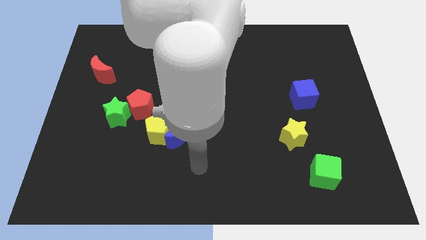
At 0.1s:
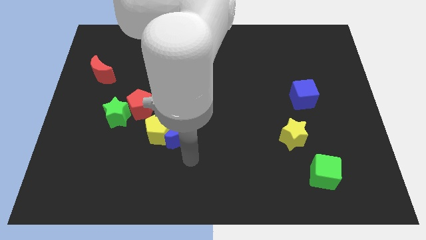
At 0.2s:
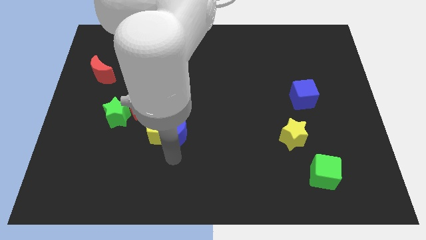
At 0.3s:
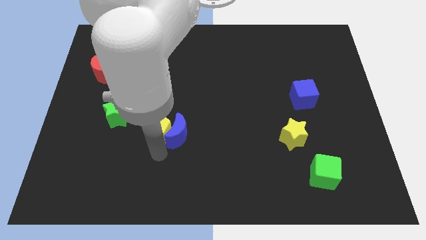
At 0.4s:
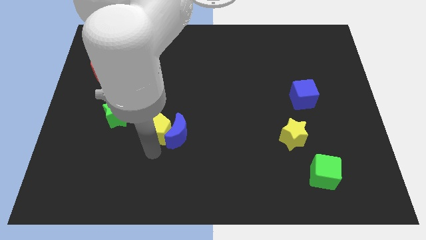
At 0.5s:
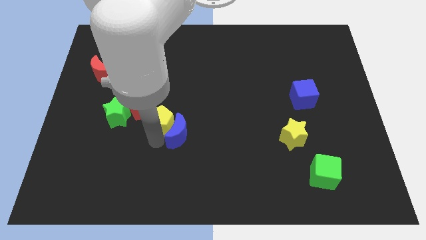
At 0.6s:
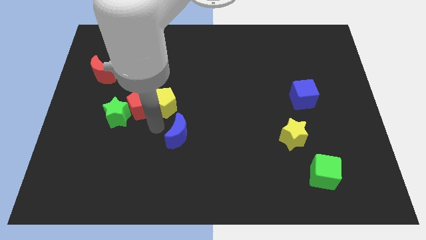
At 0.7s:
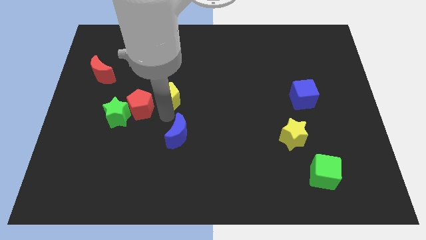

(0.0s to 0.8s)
separate the blue moon from the yellow pentagon

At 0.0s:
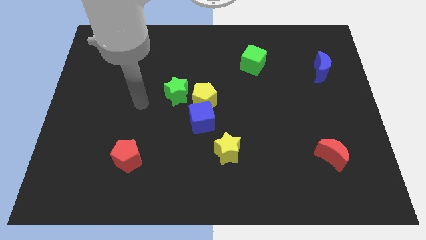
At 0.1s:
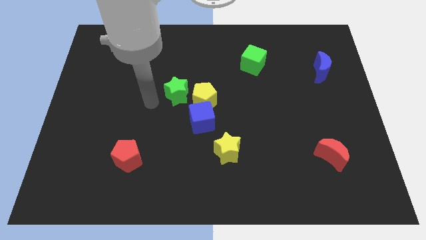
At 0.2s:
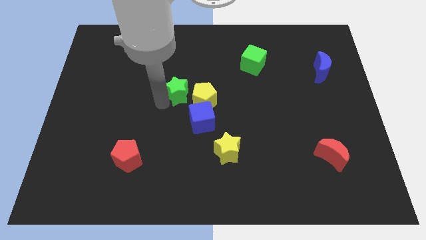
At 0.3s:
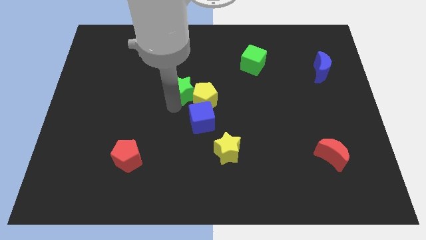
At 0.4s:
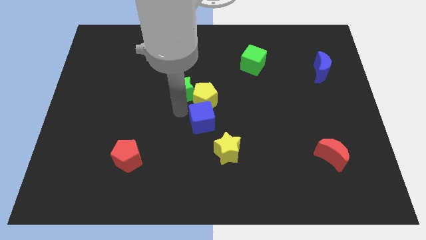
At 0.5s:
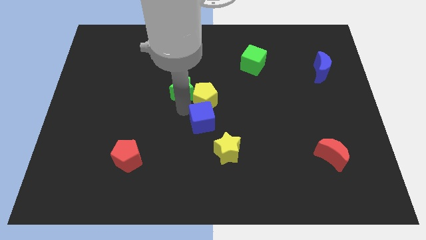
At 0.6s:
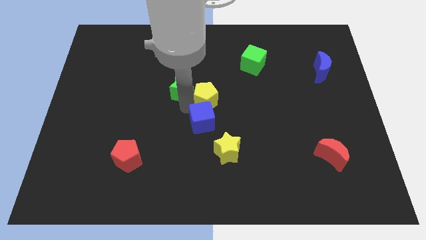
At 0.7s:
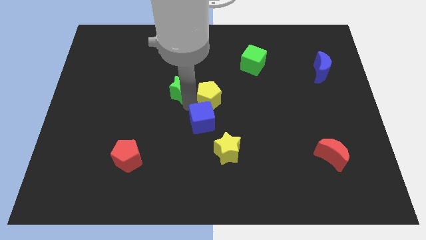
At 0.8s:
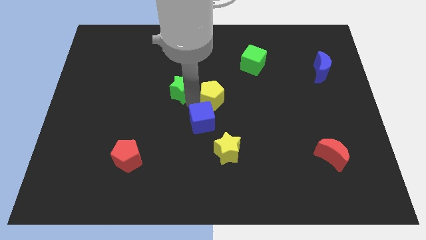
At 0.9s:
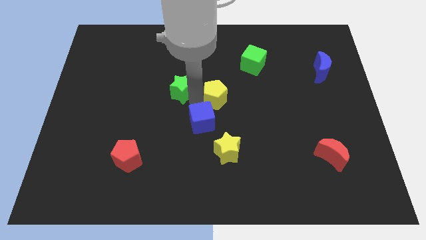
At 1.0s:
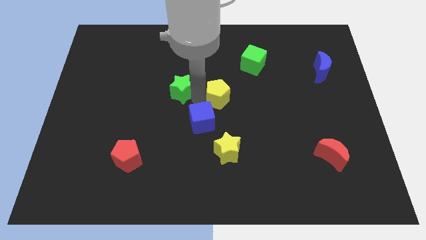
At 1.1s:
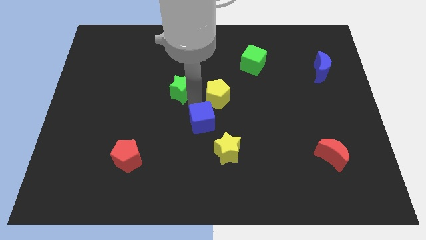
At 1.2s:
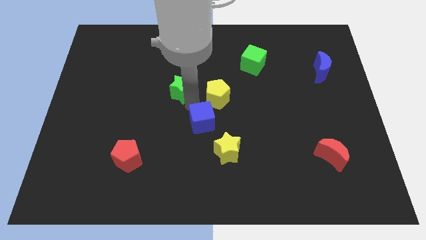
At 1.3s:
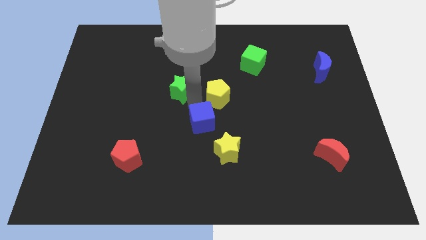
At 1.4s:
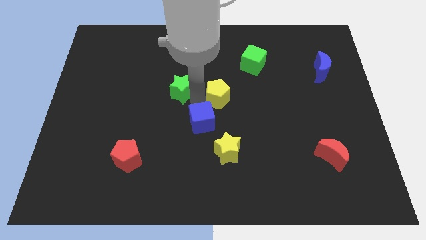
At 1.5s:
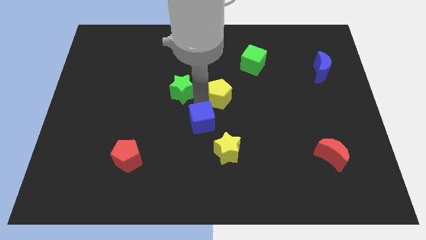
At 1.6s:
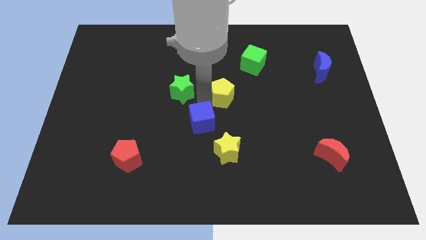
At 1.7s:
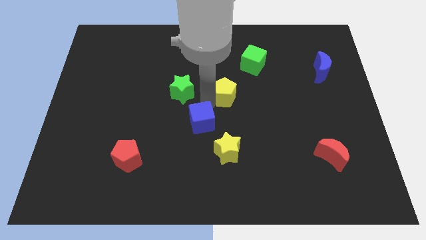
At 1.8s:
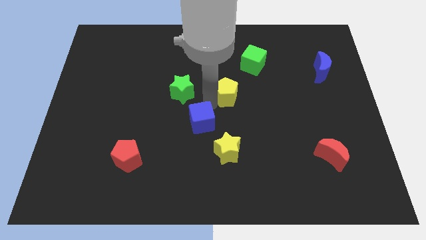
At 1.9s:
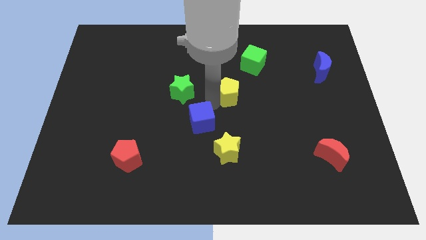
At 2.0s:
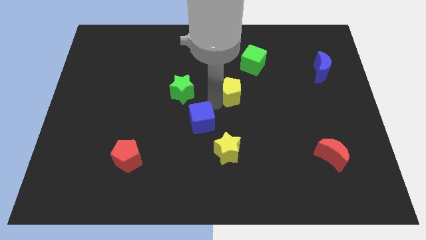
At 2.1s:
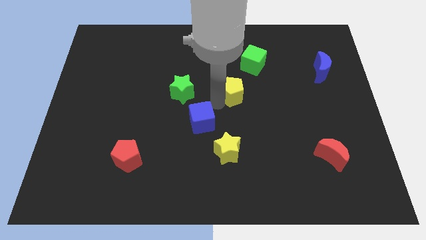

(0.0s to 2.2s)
pull the yellow pentagon apart from the blue cube and green star

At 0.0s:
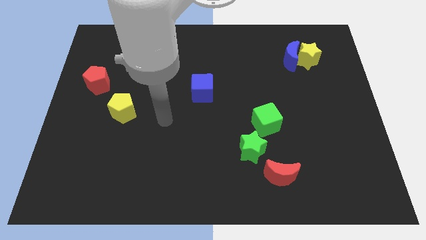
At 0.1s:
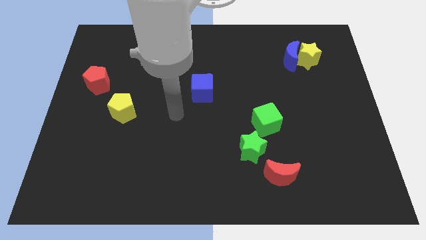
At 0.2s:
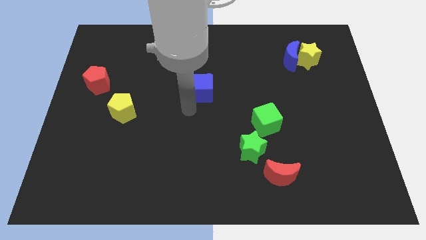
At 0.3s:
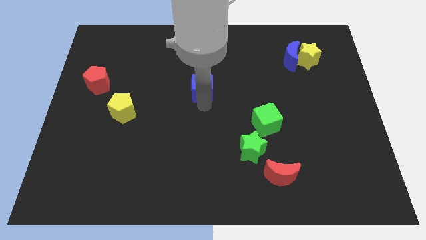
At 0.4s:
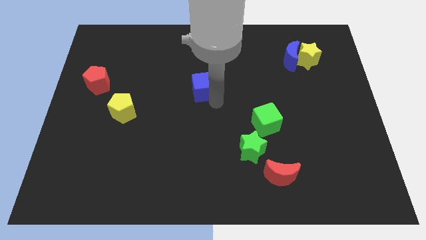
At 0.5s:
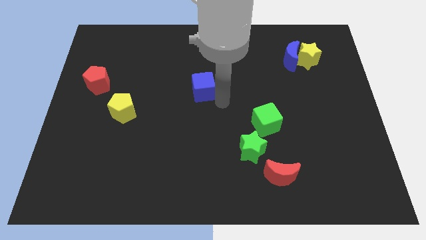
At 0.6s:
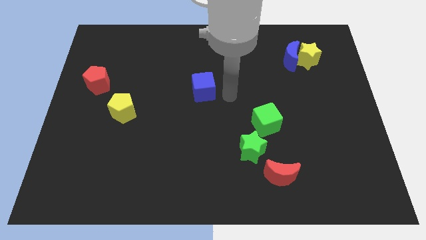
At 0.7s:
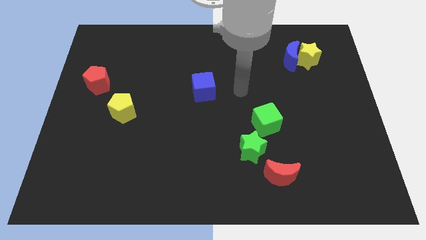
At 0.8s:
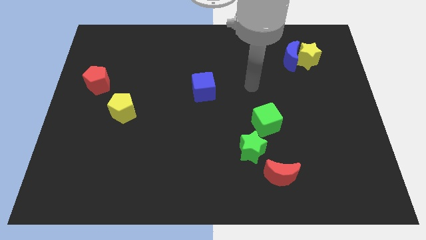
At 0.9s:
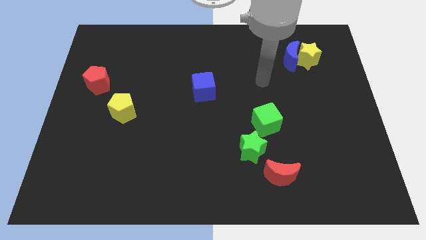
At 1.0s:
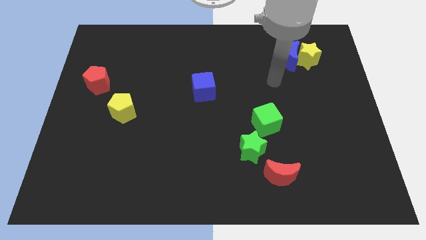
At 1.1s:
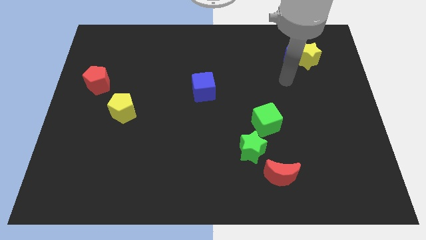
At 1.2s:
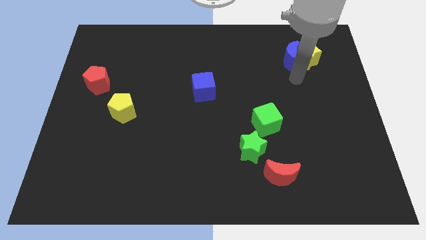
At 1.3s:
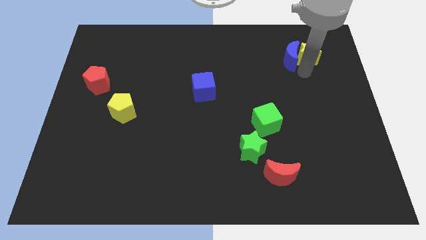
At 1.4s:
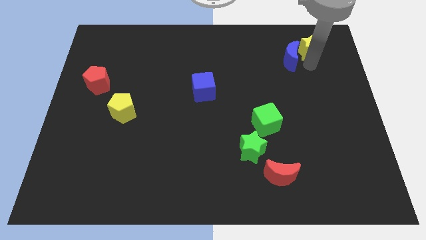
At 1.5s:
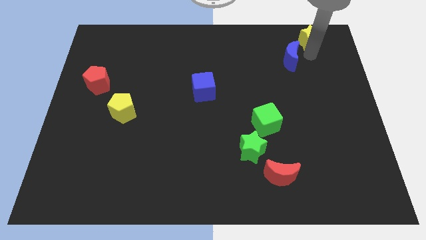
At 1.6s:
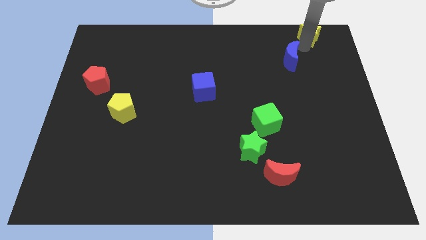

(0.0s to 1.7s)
move the blue moon away from the yellow star

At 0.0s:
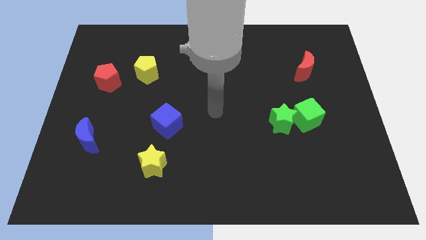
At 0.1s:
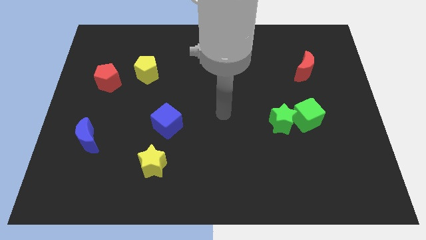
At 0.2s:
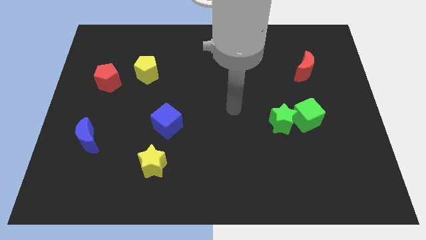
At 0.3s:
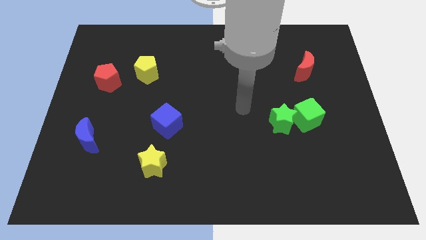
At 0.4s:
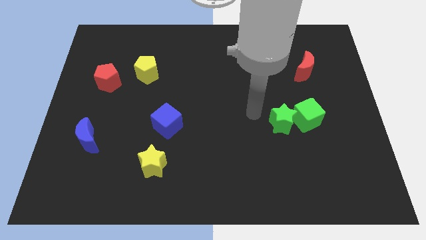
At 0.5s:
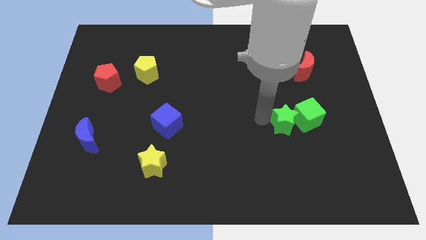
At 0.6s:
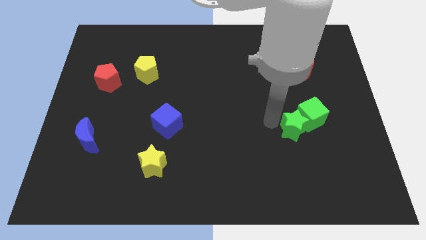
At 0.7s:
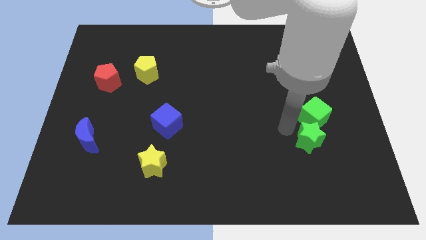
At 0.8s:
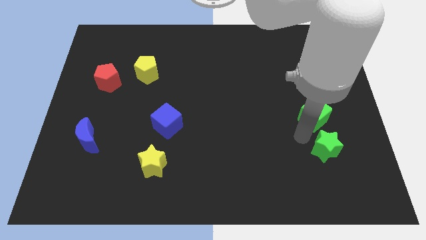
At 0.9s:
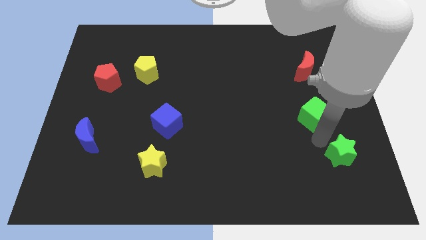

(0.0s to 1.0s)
move the green cube away from the green star

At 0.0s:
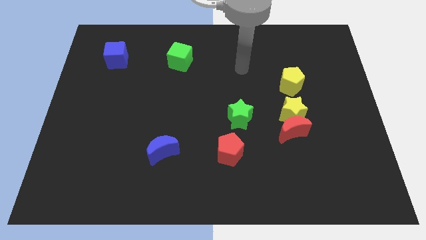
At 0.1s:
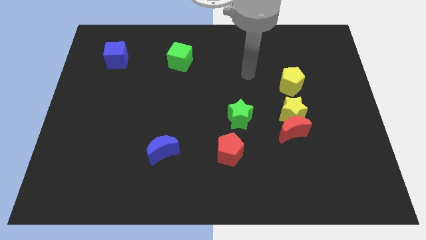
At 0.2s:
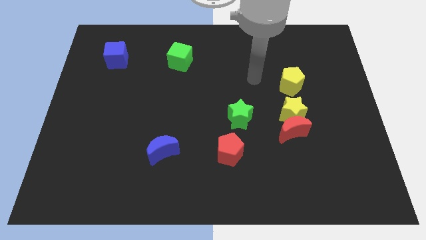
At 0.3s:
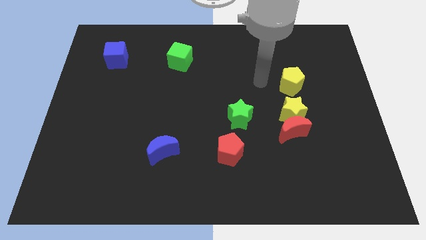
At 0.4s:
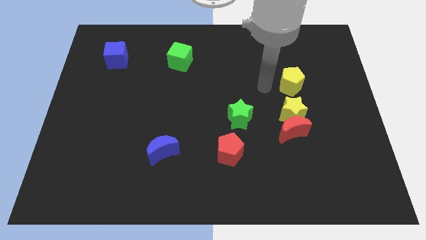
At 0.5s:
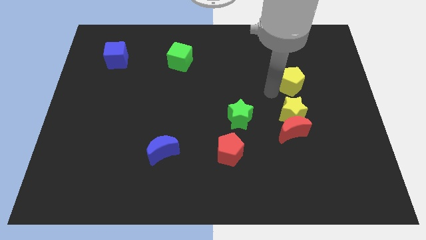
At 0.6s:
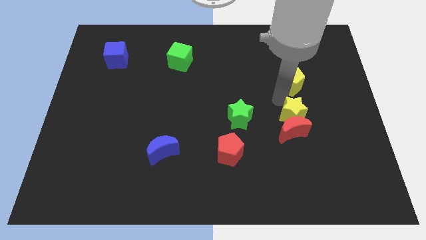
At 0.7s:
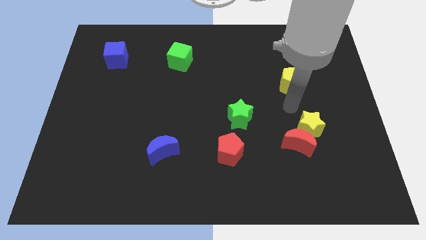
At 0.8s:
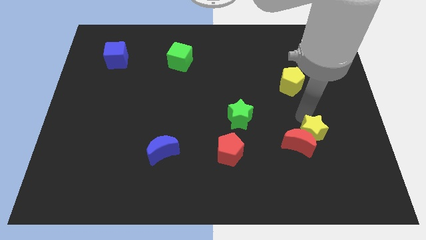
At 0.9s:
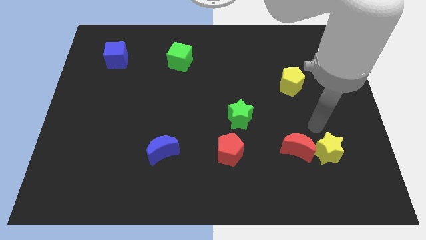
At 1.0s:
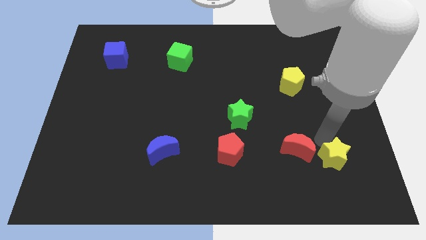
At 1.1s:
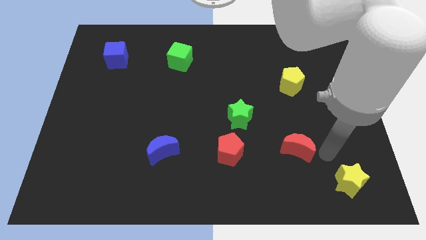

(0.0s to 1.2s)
separate the red moon from the yellow star

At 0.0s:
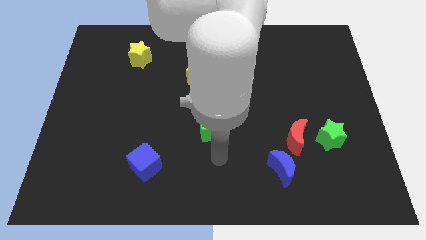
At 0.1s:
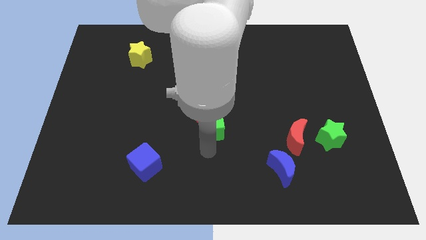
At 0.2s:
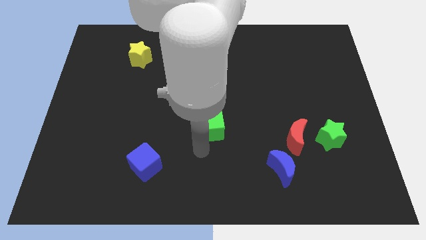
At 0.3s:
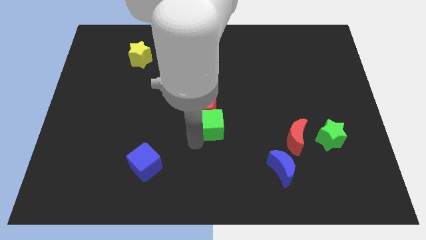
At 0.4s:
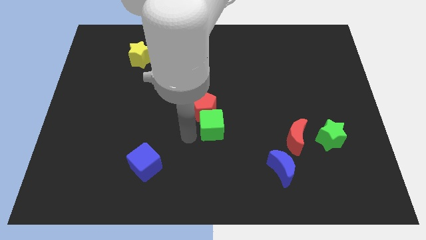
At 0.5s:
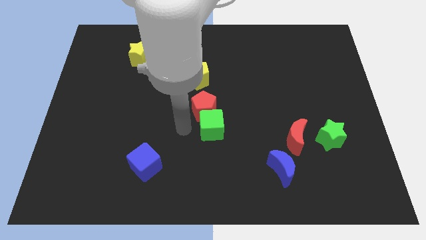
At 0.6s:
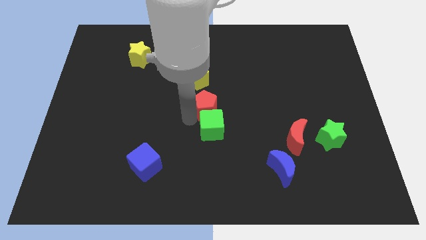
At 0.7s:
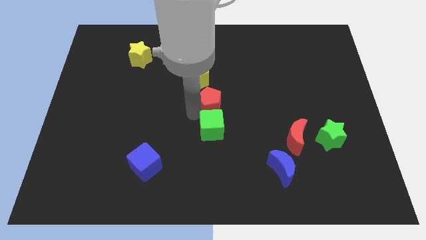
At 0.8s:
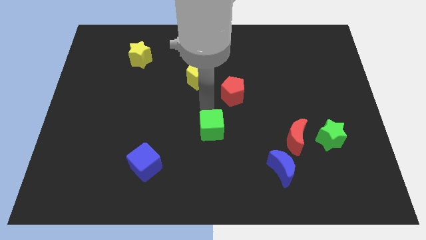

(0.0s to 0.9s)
move the green cube away from the red pentagon

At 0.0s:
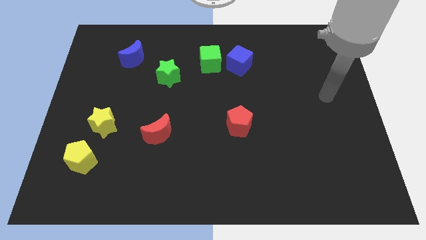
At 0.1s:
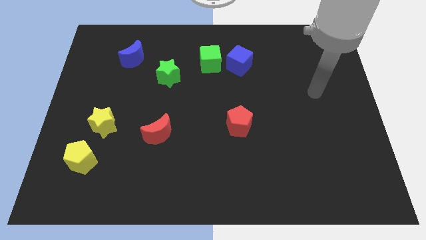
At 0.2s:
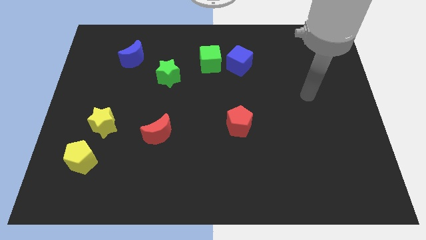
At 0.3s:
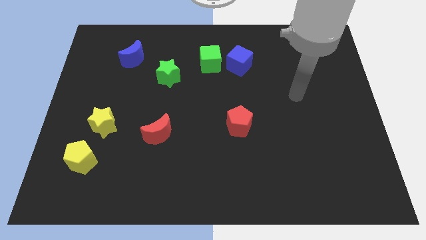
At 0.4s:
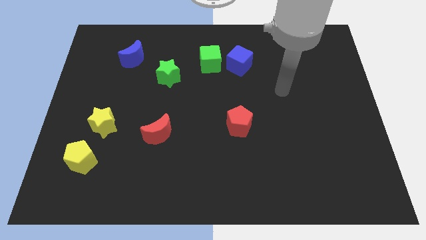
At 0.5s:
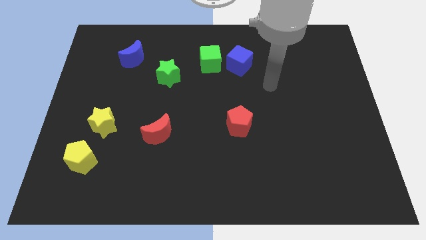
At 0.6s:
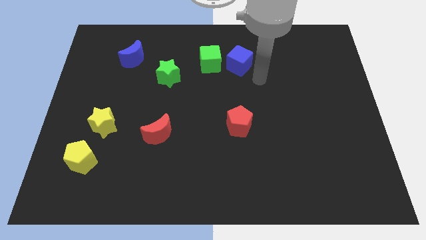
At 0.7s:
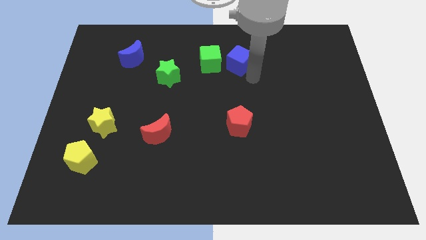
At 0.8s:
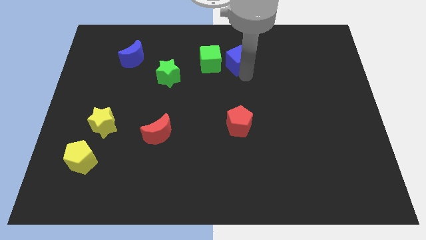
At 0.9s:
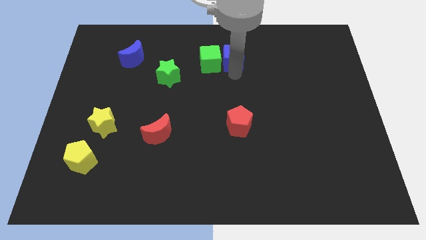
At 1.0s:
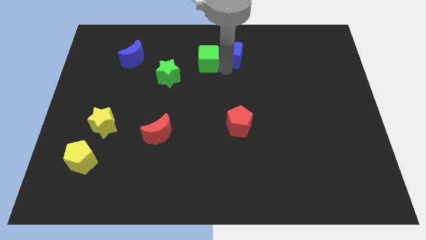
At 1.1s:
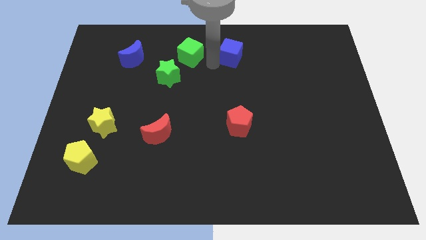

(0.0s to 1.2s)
pull the blue cube apart from the green cube

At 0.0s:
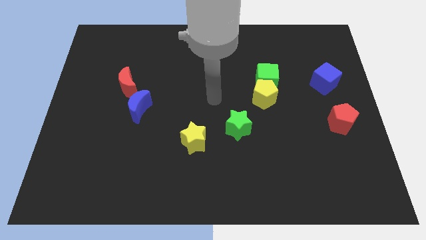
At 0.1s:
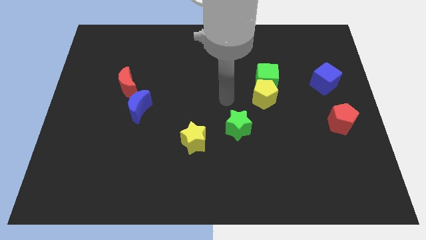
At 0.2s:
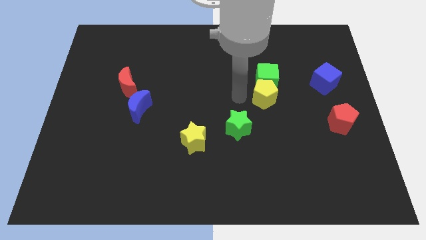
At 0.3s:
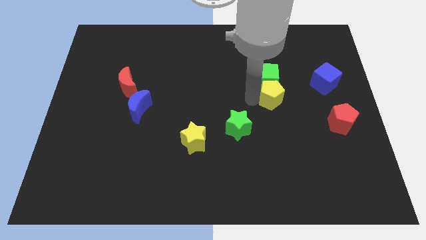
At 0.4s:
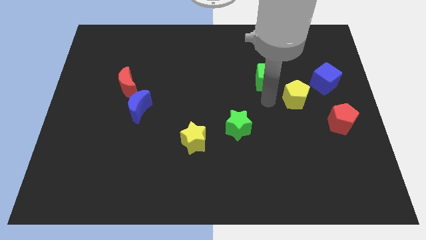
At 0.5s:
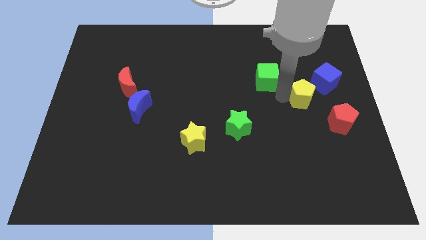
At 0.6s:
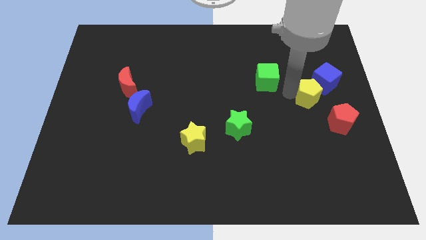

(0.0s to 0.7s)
pull the green cube apart from the yellow pentagon
